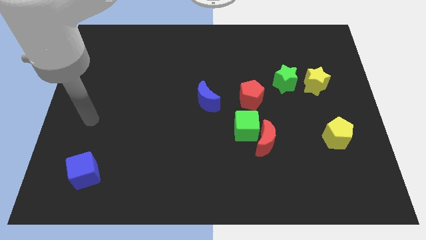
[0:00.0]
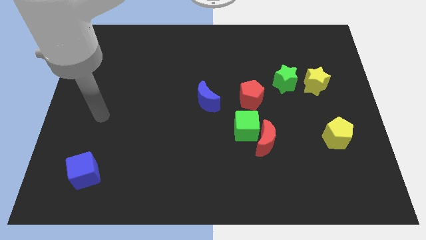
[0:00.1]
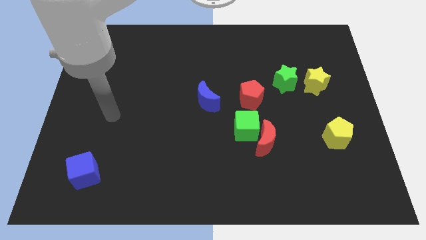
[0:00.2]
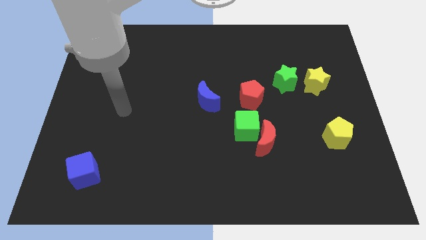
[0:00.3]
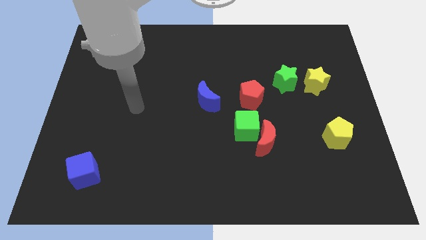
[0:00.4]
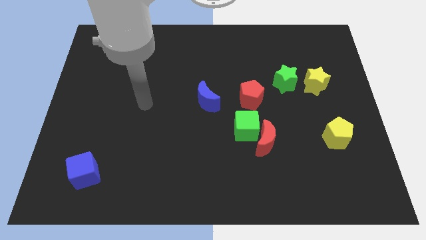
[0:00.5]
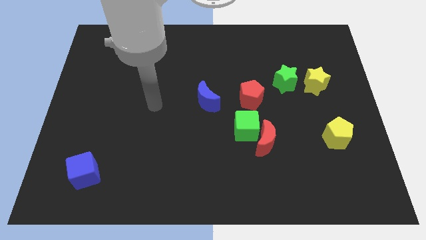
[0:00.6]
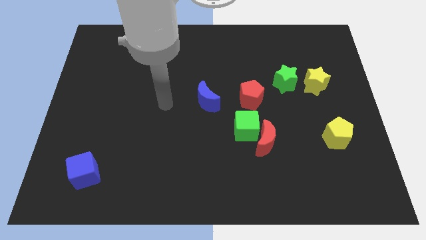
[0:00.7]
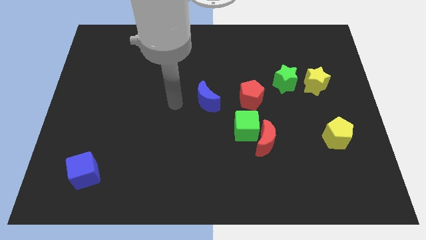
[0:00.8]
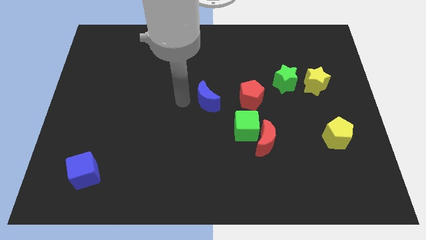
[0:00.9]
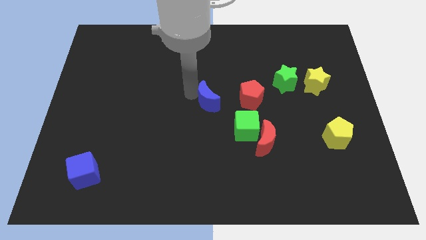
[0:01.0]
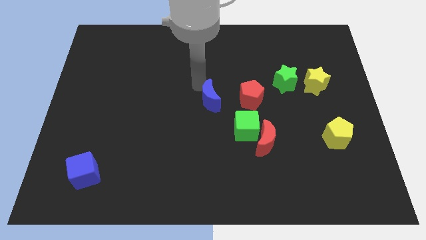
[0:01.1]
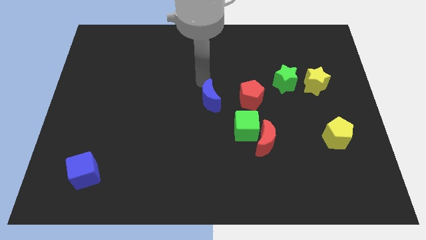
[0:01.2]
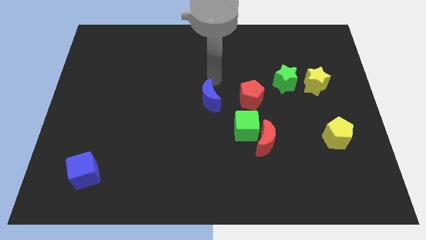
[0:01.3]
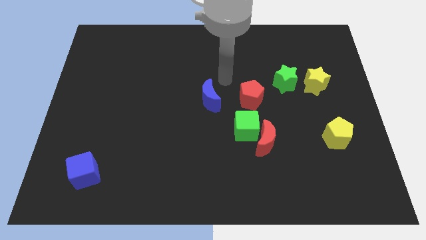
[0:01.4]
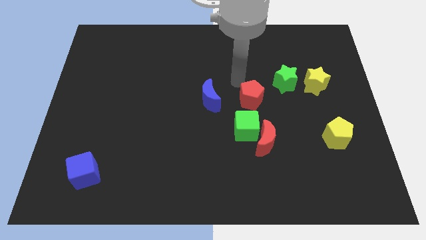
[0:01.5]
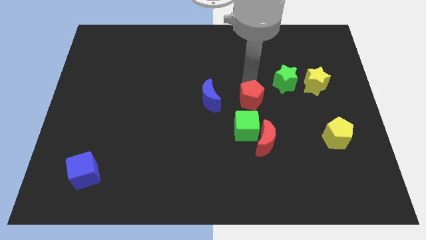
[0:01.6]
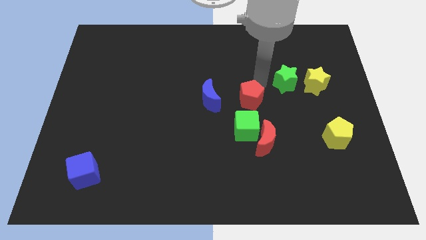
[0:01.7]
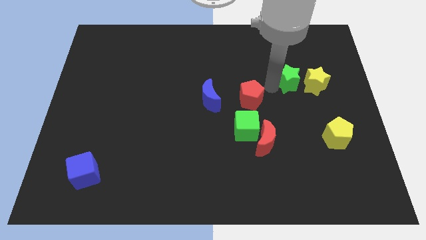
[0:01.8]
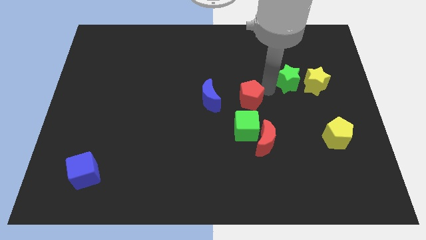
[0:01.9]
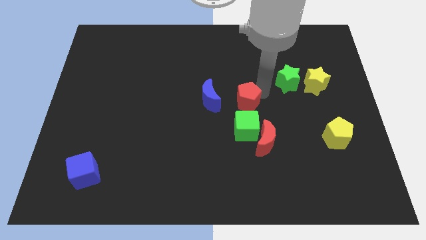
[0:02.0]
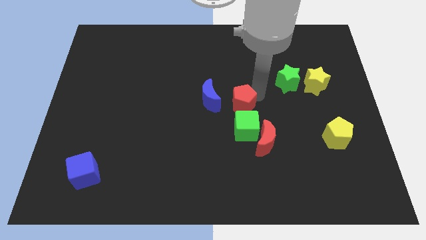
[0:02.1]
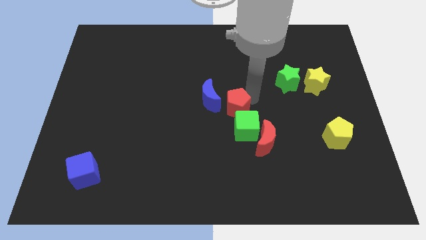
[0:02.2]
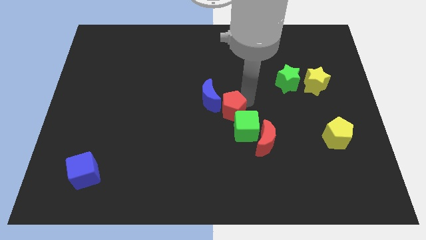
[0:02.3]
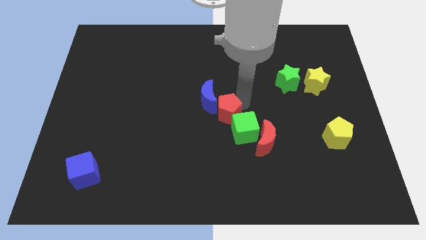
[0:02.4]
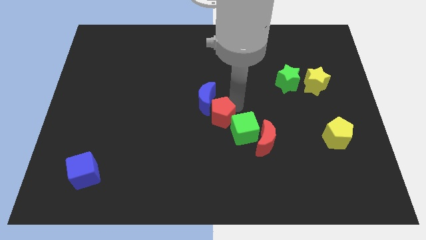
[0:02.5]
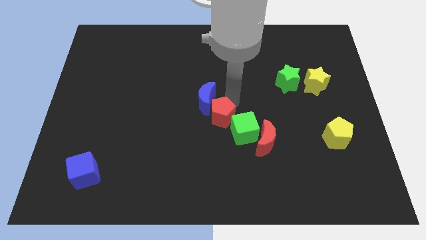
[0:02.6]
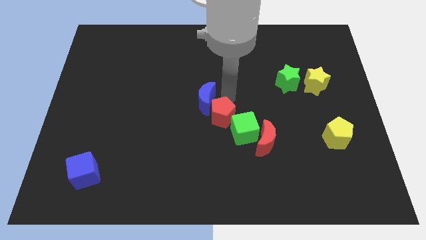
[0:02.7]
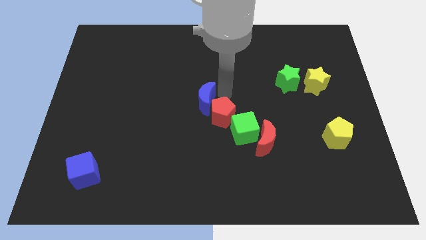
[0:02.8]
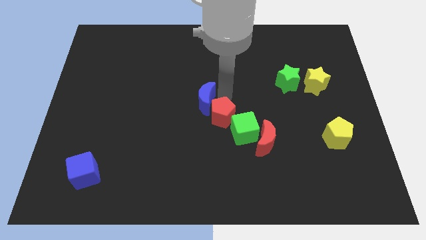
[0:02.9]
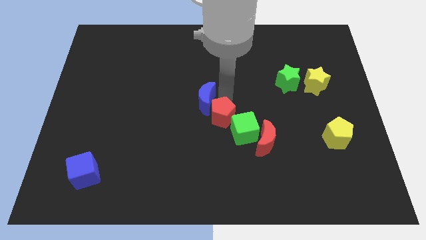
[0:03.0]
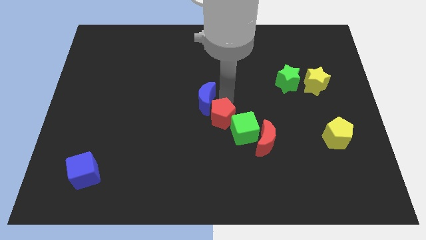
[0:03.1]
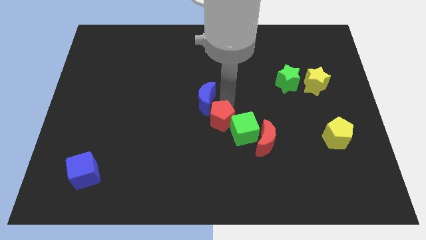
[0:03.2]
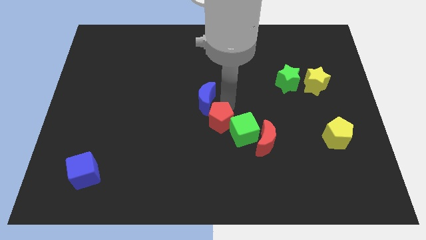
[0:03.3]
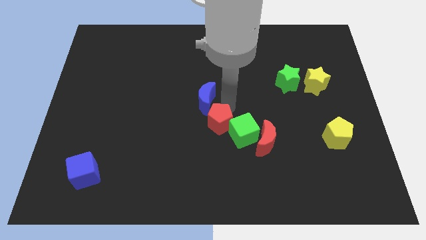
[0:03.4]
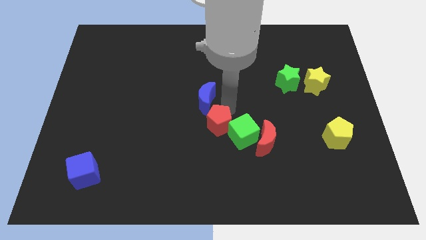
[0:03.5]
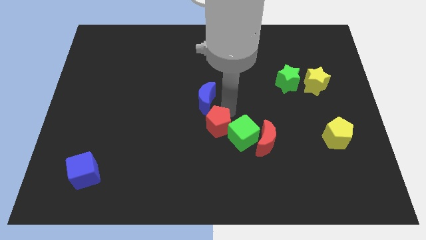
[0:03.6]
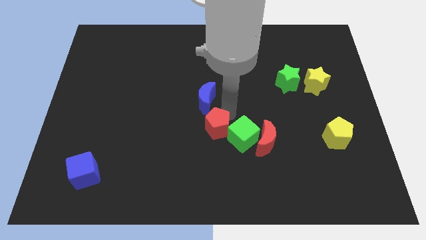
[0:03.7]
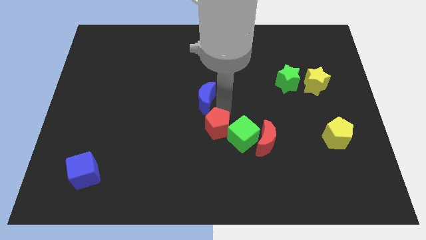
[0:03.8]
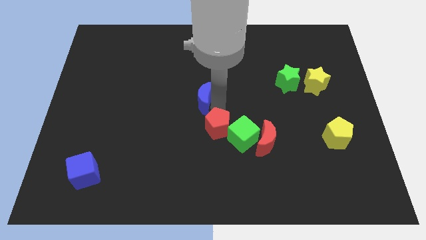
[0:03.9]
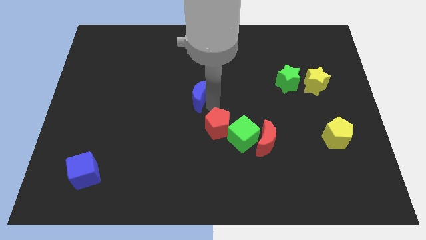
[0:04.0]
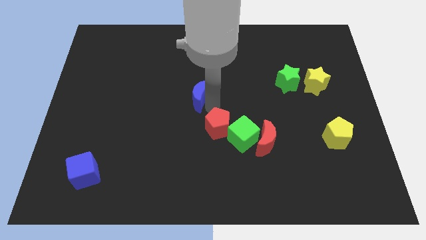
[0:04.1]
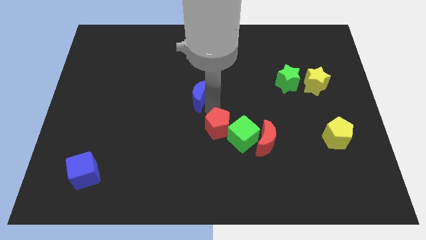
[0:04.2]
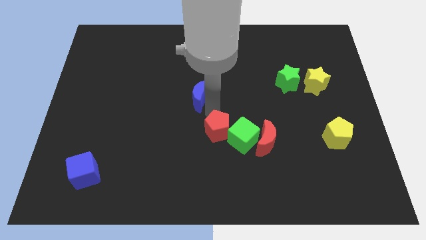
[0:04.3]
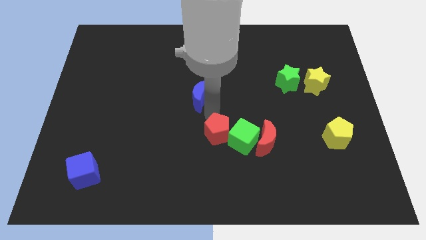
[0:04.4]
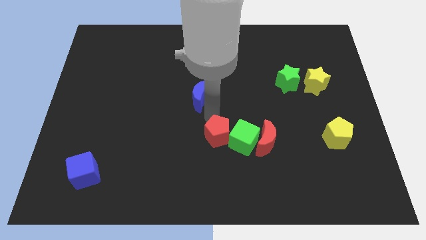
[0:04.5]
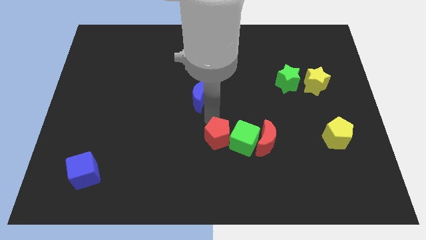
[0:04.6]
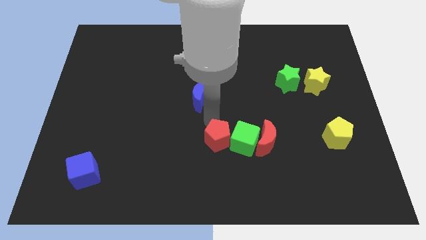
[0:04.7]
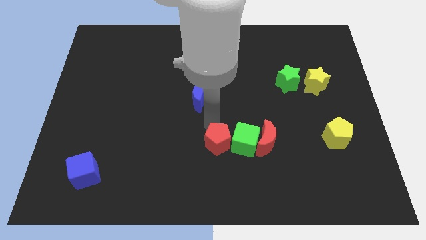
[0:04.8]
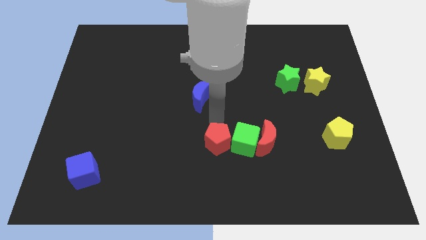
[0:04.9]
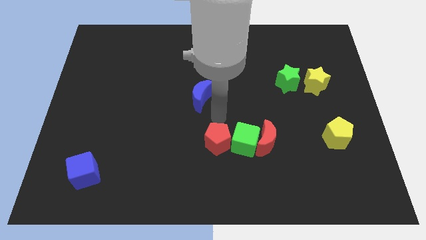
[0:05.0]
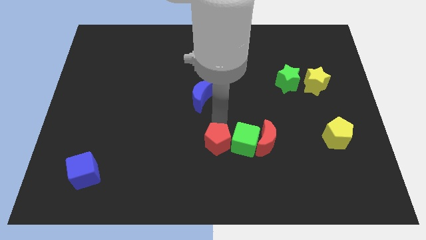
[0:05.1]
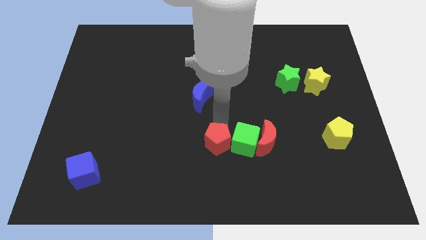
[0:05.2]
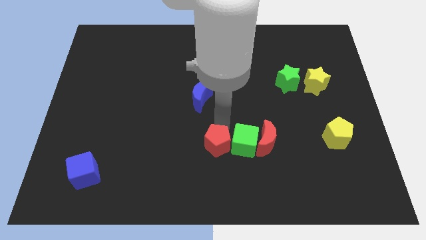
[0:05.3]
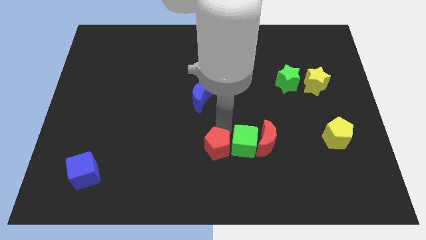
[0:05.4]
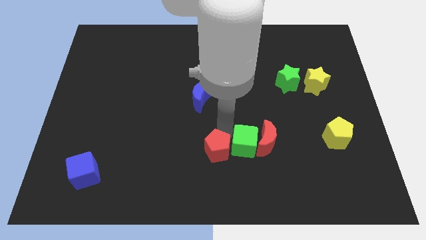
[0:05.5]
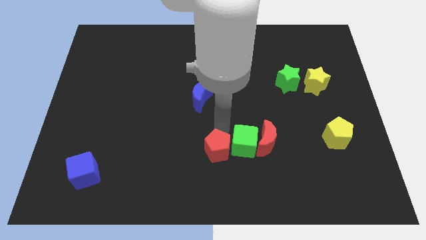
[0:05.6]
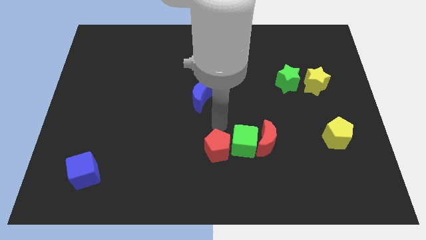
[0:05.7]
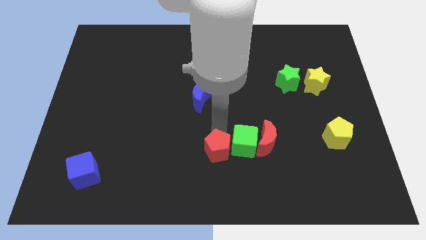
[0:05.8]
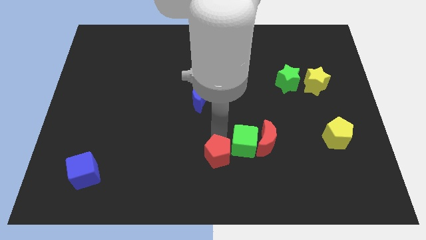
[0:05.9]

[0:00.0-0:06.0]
put the red pentagon to the bottom

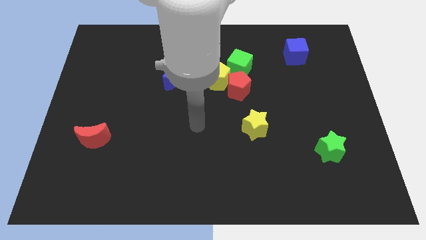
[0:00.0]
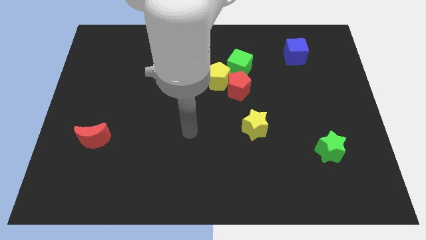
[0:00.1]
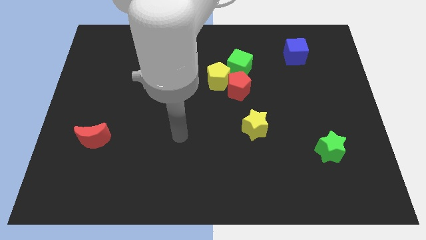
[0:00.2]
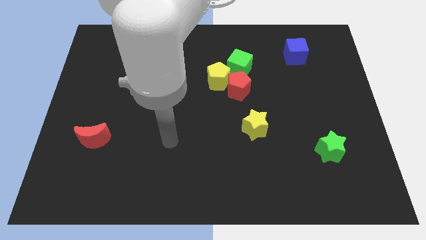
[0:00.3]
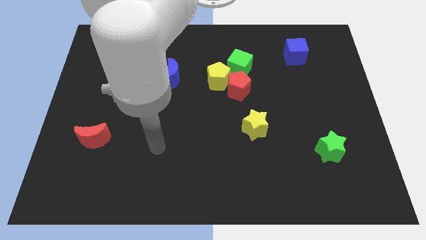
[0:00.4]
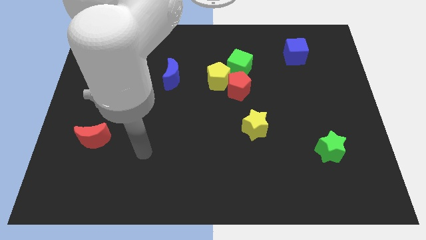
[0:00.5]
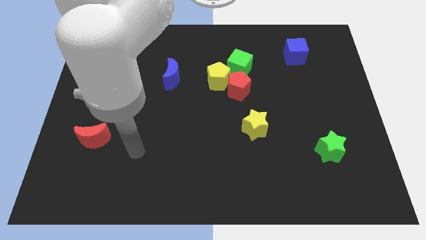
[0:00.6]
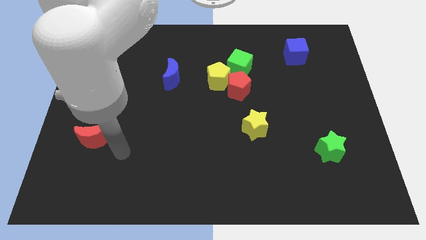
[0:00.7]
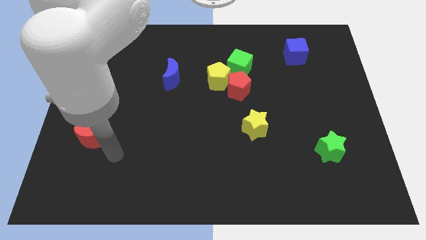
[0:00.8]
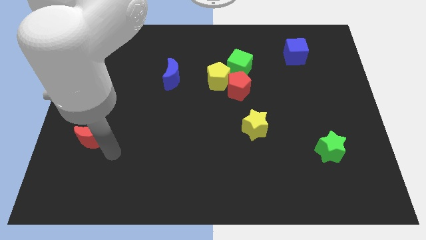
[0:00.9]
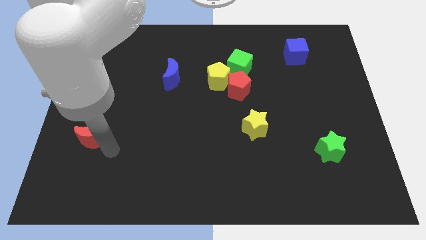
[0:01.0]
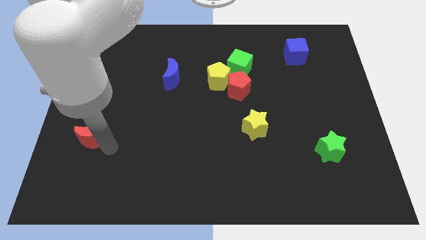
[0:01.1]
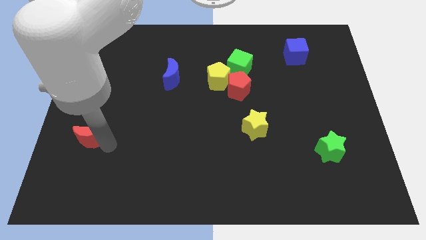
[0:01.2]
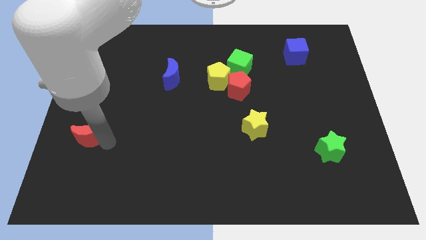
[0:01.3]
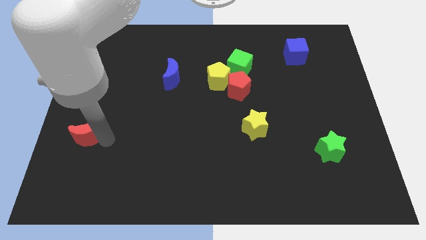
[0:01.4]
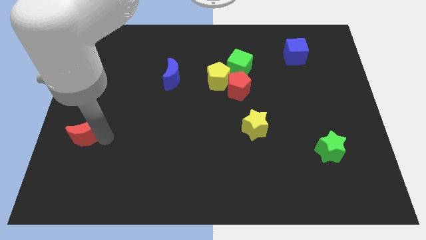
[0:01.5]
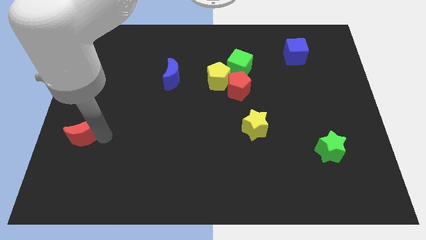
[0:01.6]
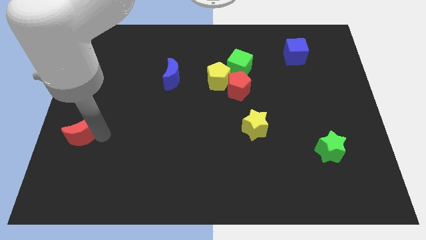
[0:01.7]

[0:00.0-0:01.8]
move the red moon to the left side
